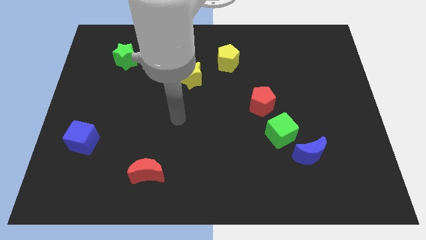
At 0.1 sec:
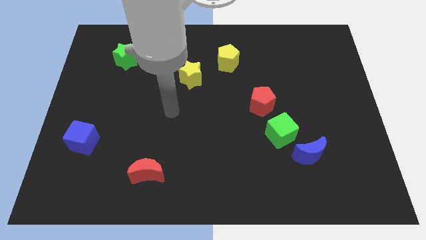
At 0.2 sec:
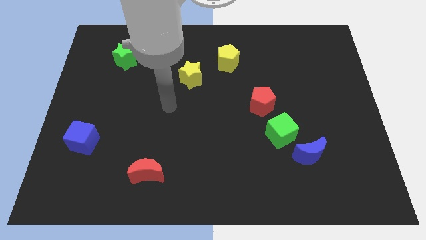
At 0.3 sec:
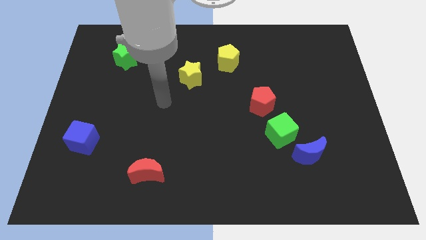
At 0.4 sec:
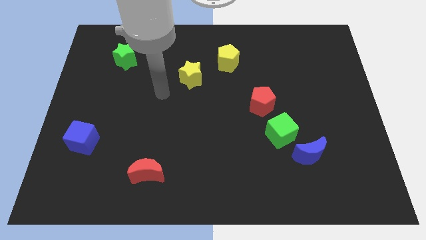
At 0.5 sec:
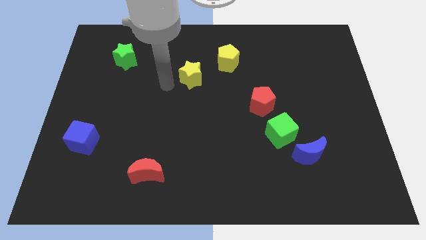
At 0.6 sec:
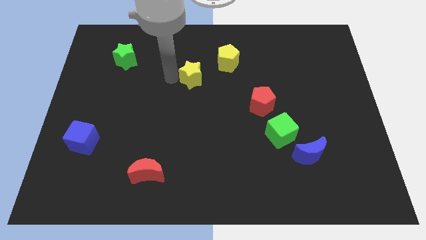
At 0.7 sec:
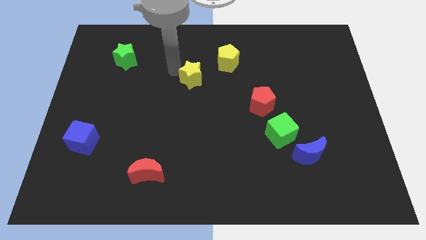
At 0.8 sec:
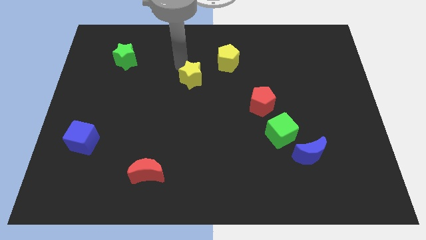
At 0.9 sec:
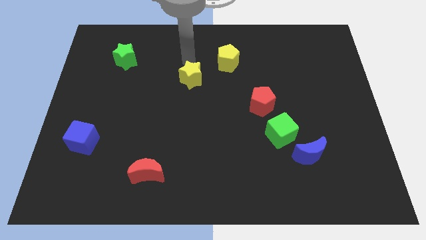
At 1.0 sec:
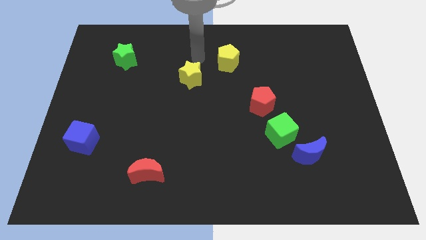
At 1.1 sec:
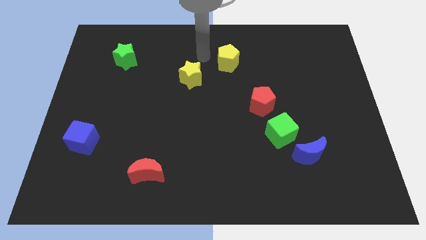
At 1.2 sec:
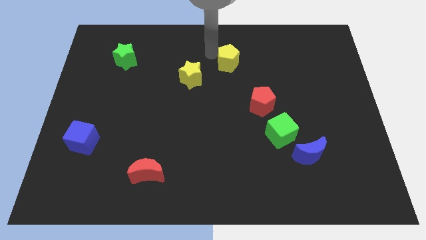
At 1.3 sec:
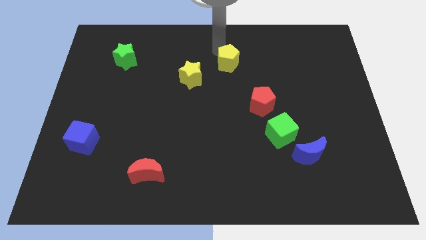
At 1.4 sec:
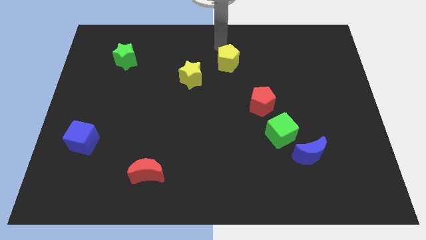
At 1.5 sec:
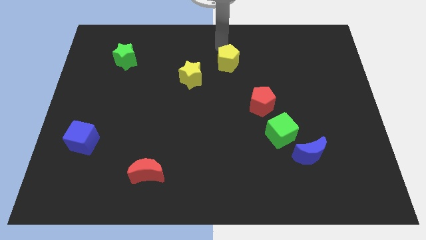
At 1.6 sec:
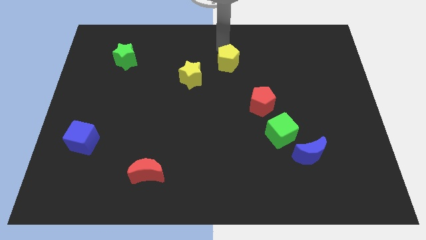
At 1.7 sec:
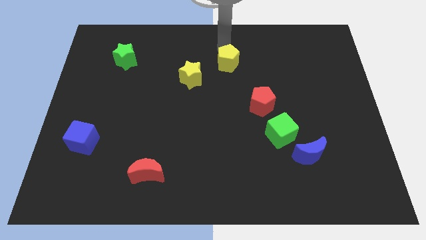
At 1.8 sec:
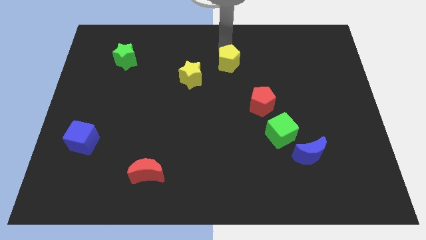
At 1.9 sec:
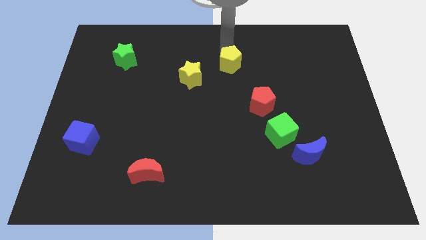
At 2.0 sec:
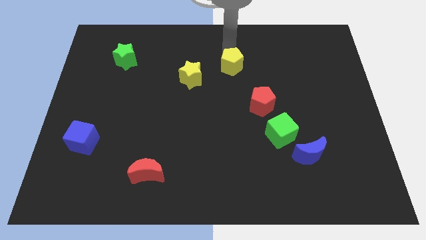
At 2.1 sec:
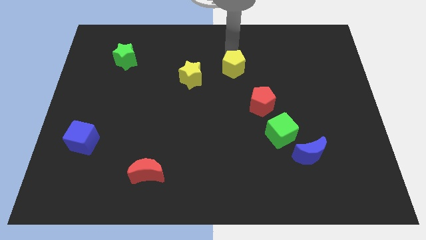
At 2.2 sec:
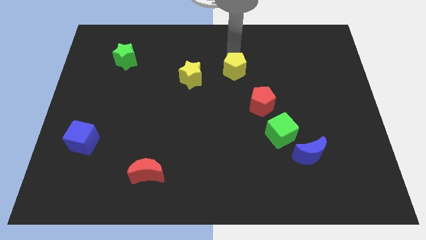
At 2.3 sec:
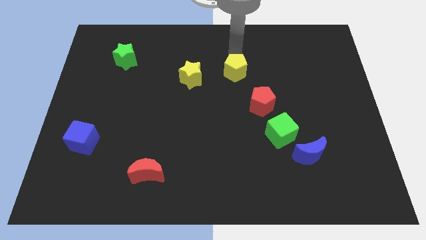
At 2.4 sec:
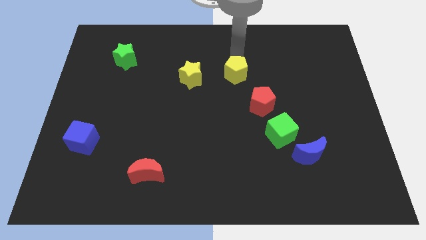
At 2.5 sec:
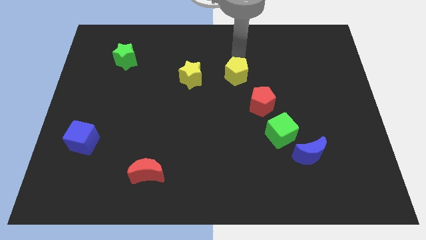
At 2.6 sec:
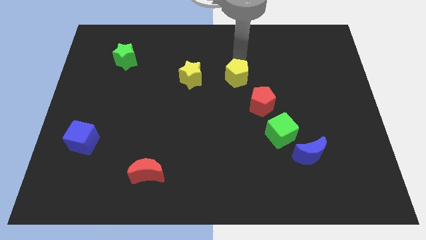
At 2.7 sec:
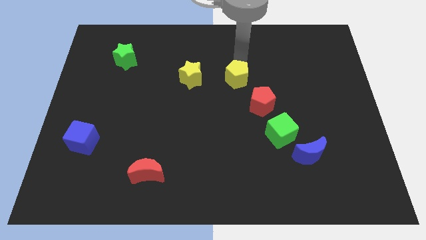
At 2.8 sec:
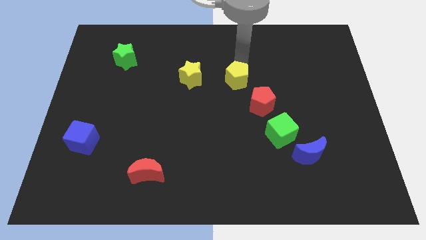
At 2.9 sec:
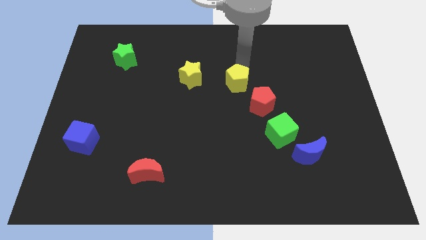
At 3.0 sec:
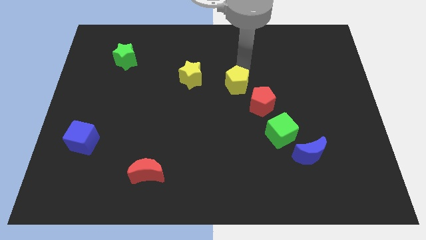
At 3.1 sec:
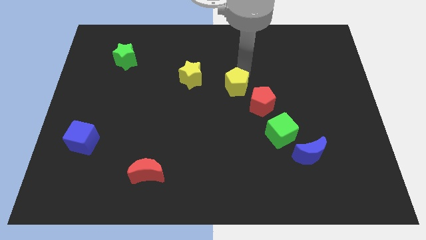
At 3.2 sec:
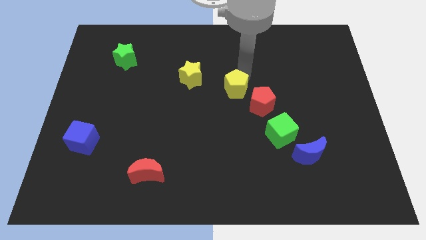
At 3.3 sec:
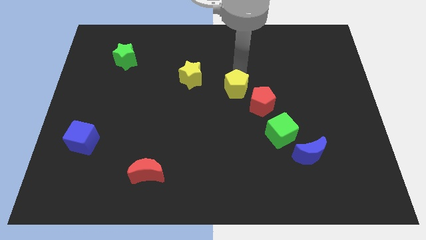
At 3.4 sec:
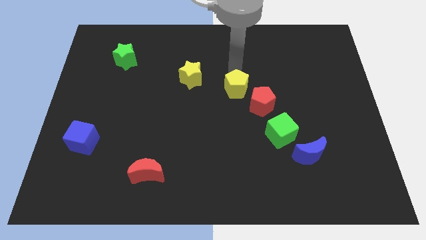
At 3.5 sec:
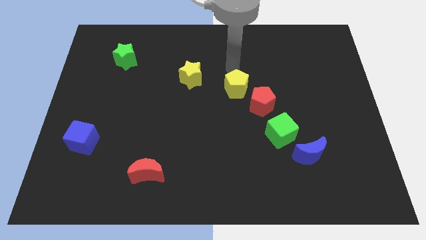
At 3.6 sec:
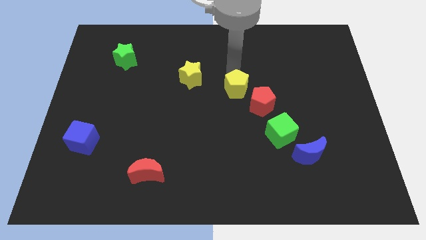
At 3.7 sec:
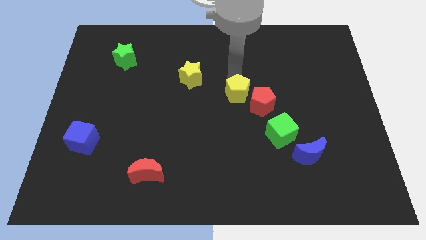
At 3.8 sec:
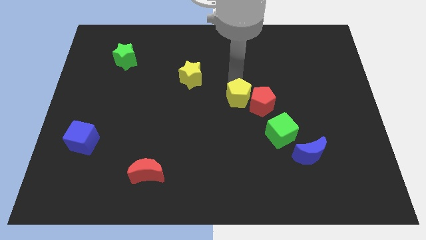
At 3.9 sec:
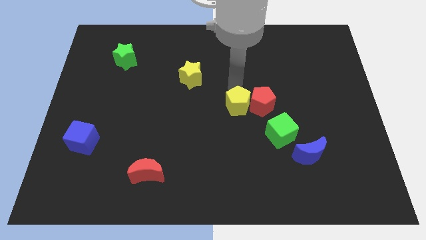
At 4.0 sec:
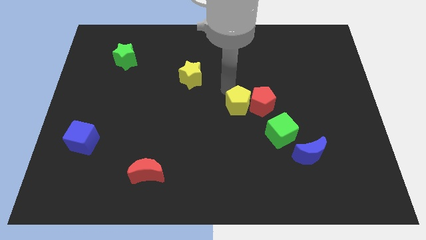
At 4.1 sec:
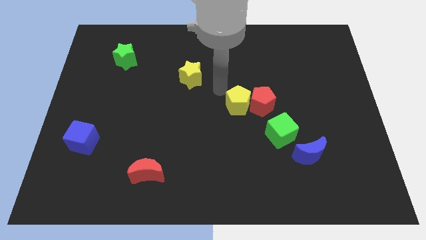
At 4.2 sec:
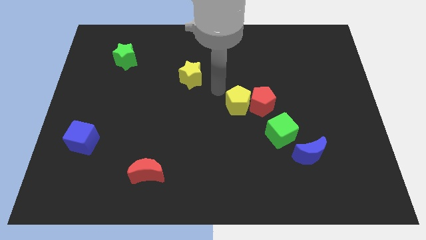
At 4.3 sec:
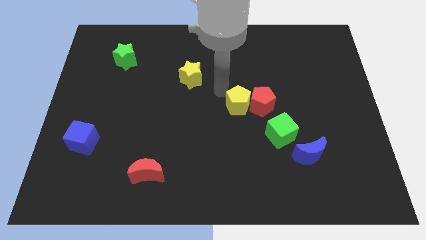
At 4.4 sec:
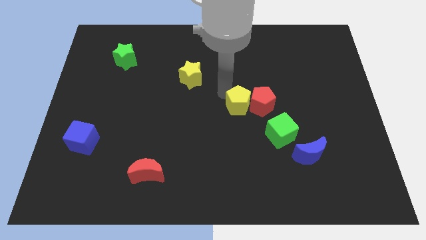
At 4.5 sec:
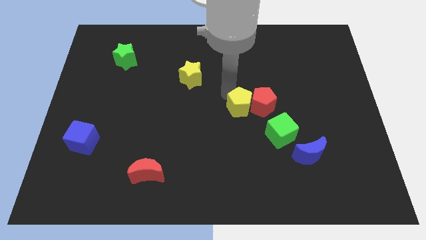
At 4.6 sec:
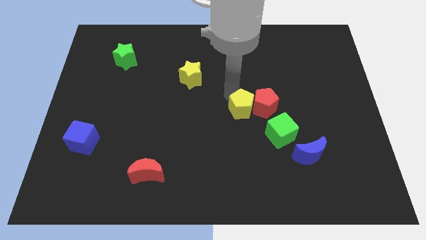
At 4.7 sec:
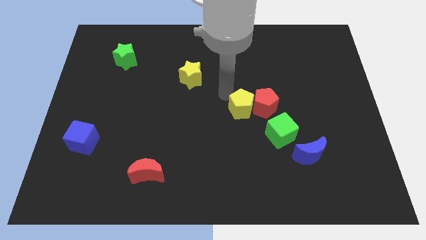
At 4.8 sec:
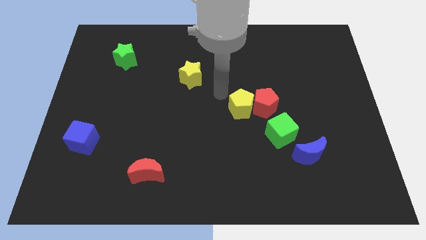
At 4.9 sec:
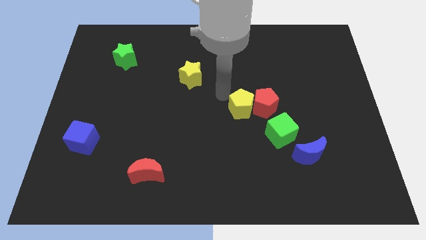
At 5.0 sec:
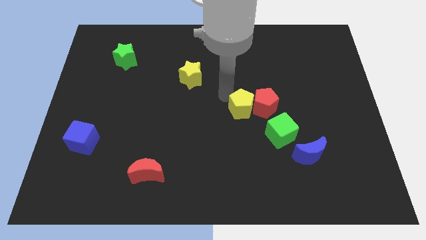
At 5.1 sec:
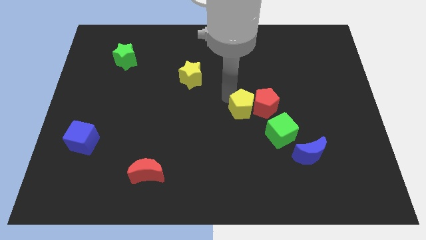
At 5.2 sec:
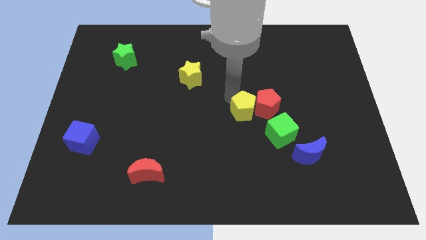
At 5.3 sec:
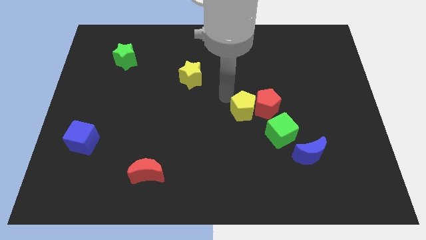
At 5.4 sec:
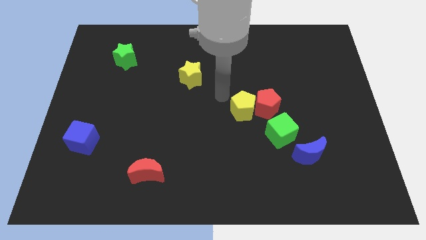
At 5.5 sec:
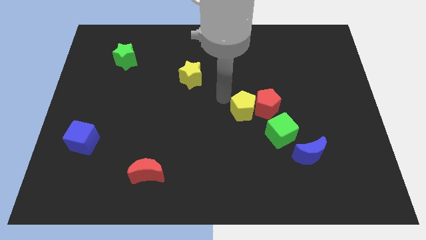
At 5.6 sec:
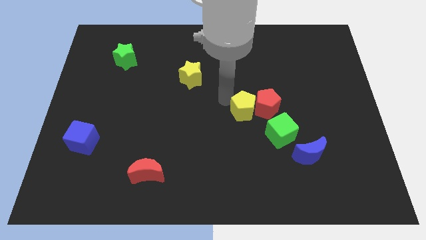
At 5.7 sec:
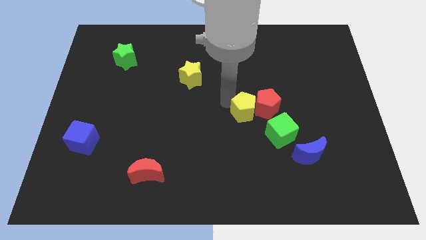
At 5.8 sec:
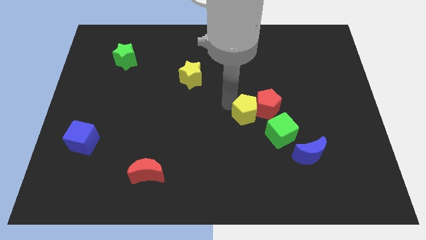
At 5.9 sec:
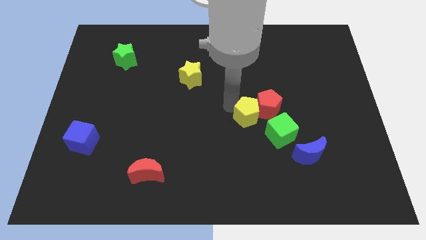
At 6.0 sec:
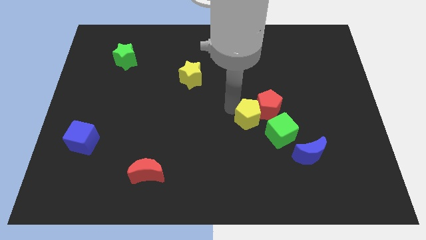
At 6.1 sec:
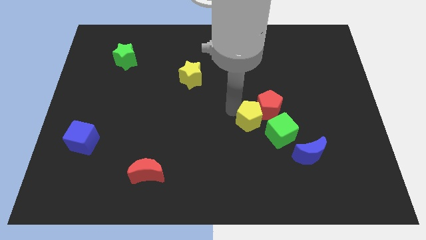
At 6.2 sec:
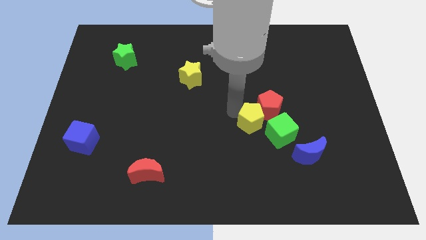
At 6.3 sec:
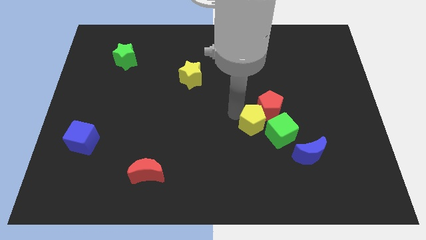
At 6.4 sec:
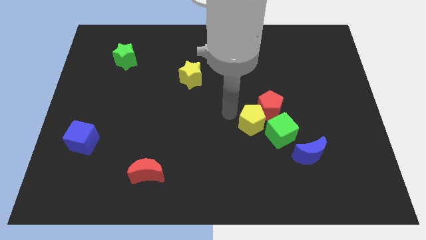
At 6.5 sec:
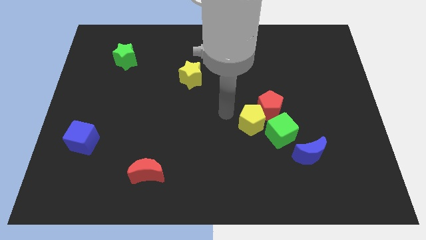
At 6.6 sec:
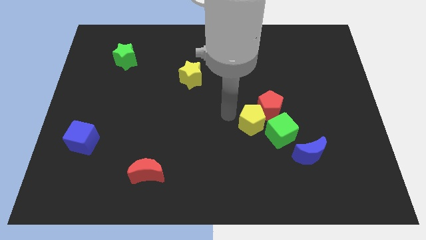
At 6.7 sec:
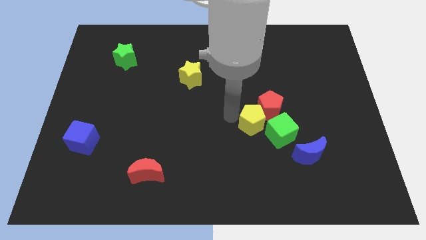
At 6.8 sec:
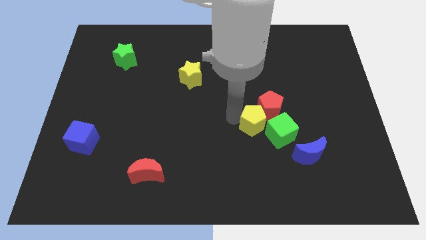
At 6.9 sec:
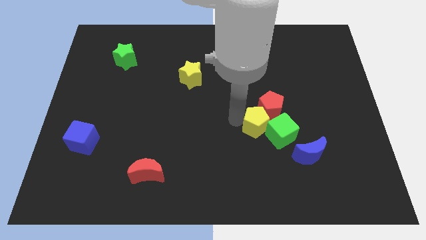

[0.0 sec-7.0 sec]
put the yellow pentagon towards the green cube

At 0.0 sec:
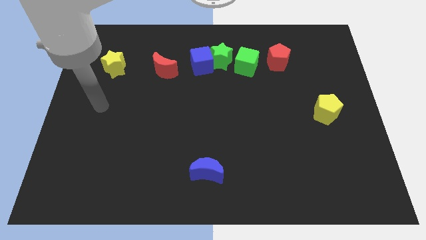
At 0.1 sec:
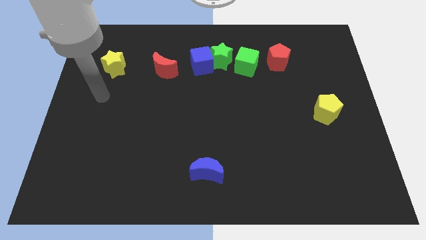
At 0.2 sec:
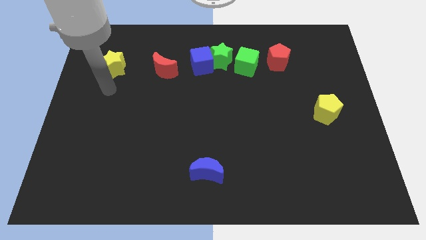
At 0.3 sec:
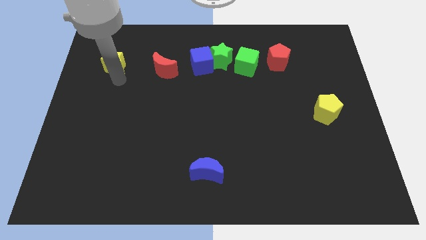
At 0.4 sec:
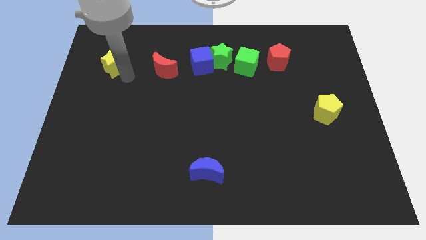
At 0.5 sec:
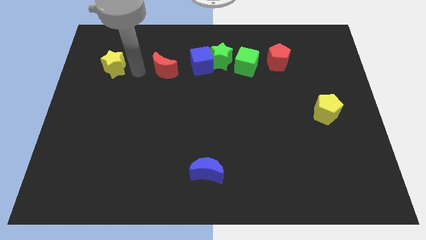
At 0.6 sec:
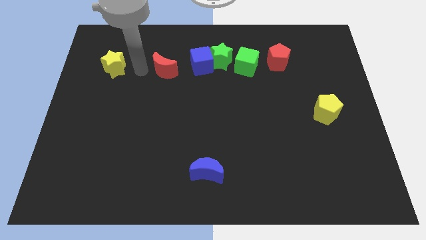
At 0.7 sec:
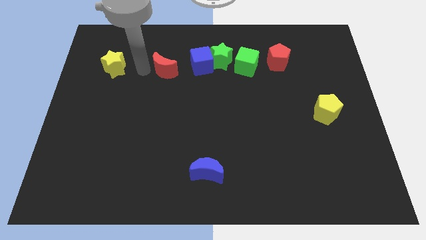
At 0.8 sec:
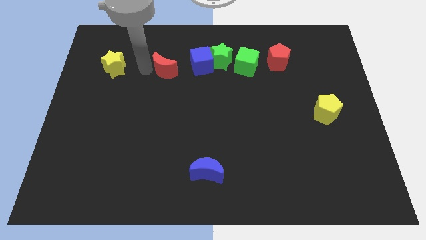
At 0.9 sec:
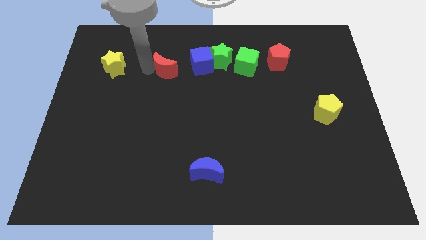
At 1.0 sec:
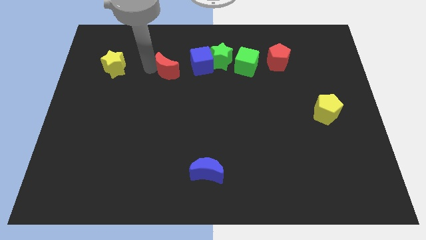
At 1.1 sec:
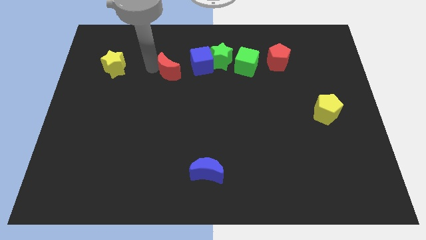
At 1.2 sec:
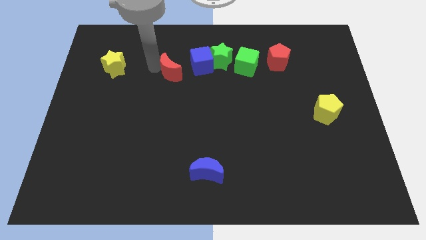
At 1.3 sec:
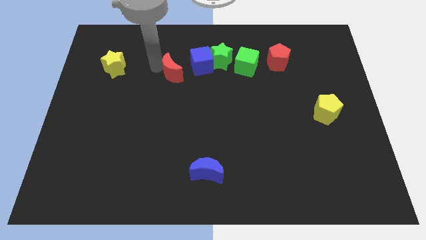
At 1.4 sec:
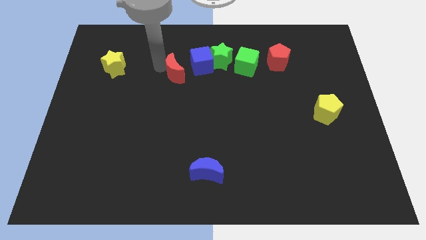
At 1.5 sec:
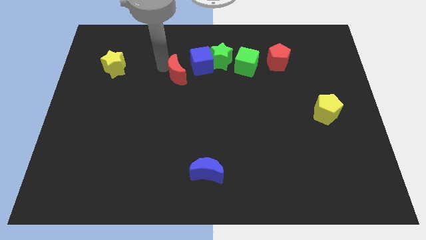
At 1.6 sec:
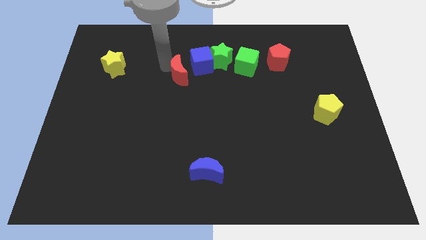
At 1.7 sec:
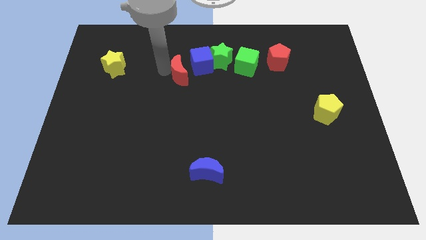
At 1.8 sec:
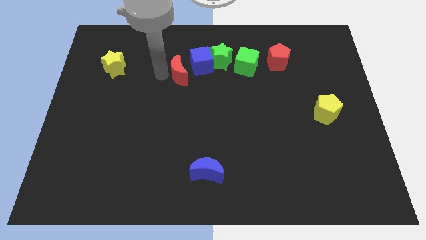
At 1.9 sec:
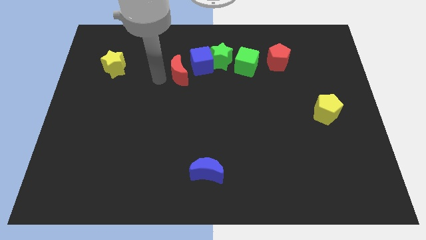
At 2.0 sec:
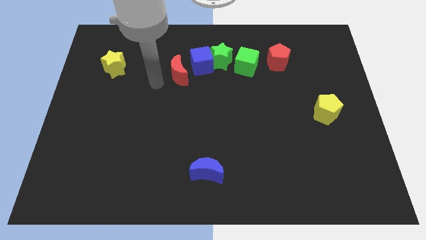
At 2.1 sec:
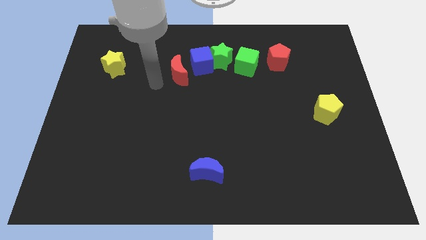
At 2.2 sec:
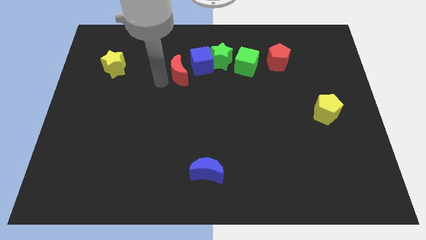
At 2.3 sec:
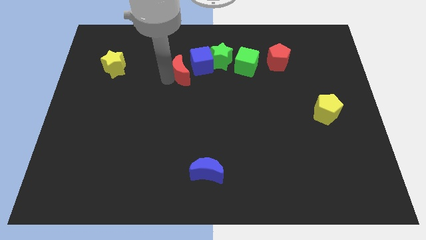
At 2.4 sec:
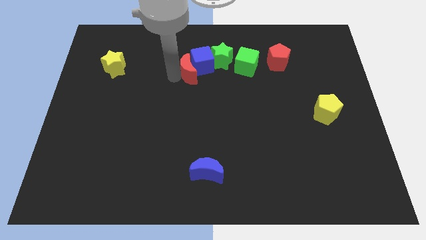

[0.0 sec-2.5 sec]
slide the red moon close to the blue cube
